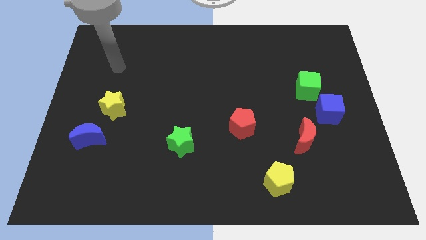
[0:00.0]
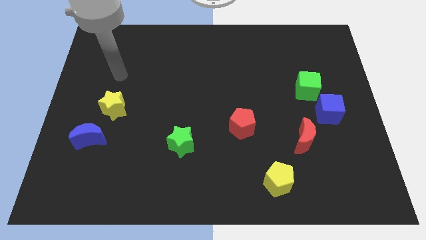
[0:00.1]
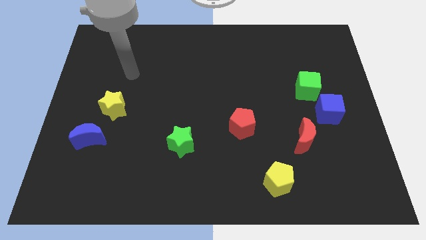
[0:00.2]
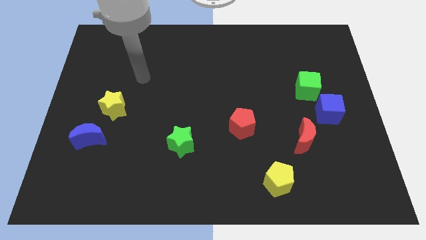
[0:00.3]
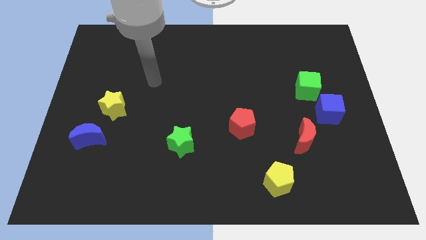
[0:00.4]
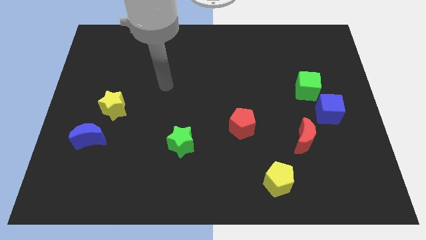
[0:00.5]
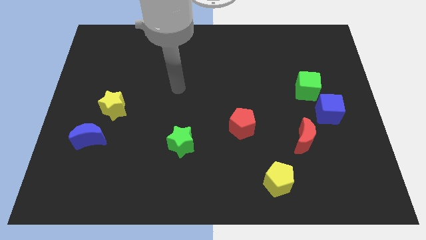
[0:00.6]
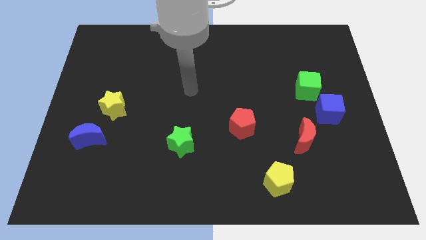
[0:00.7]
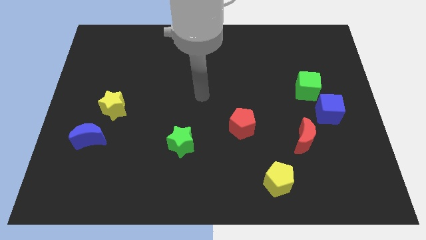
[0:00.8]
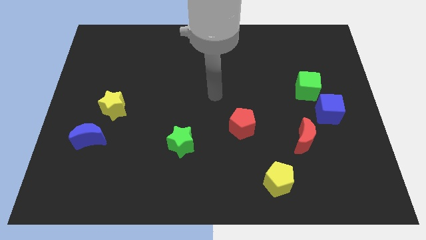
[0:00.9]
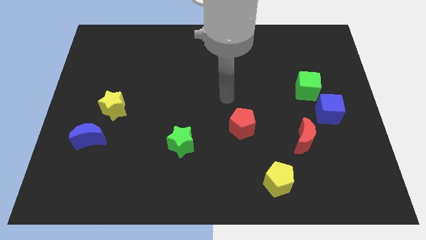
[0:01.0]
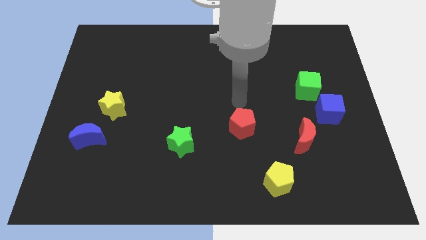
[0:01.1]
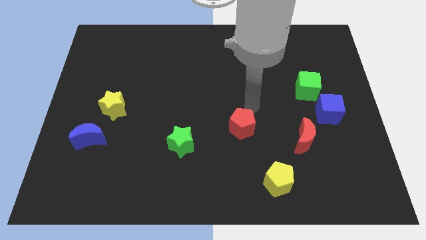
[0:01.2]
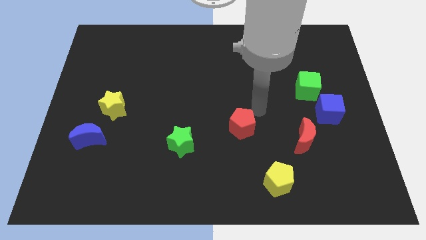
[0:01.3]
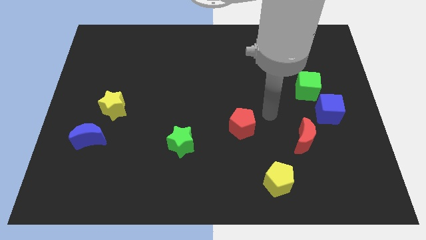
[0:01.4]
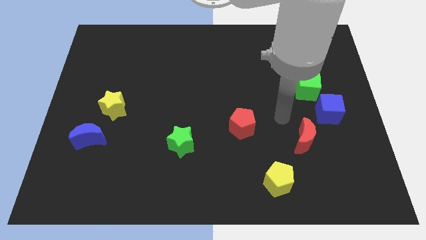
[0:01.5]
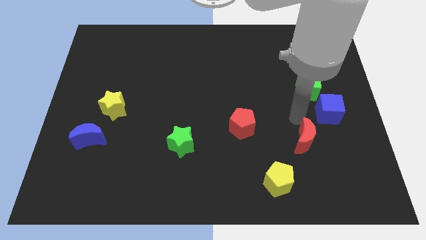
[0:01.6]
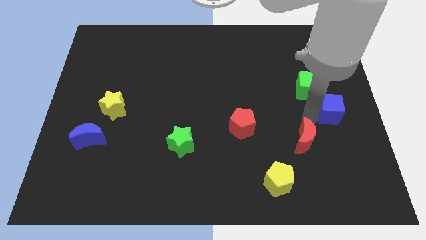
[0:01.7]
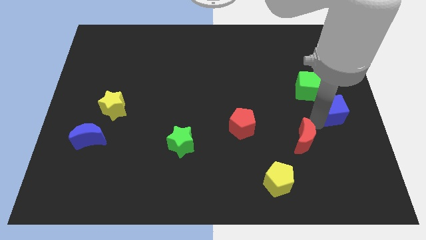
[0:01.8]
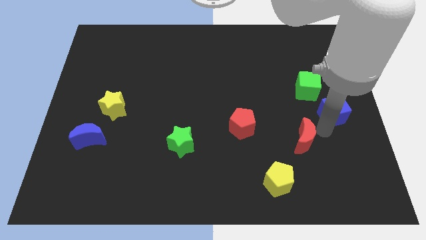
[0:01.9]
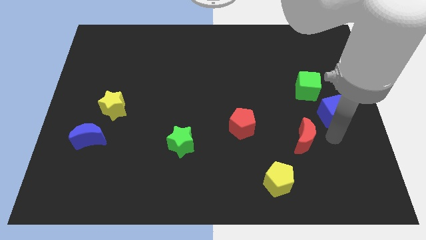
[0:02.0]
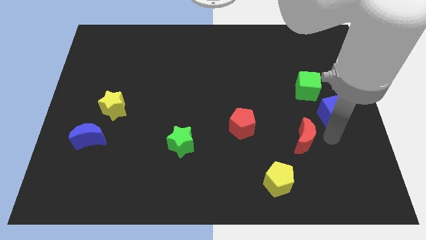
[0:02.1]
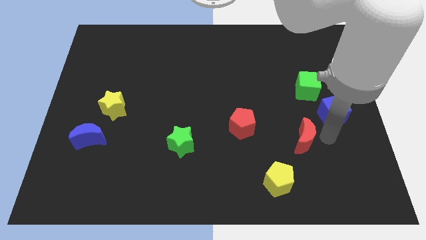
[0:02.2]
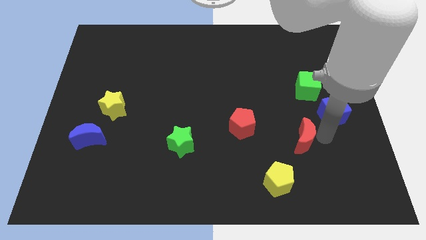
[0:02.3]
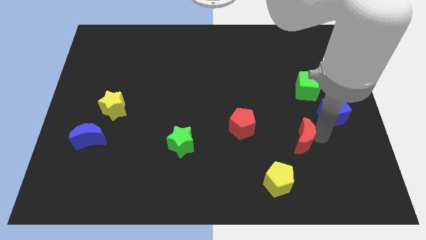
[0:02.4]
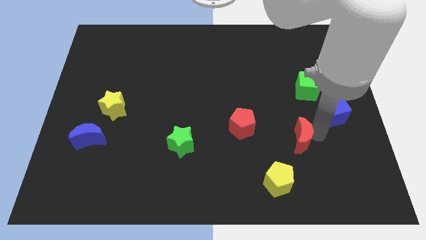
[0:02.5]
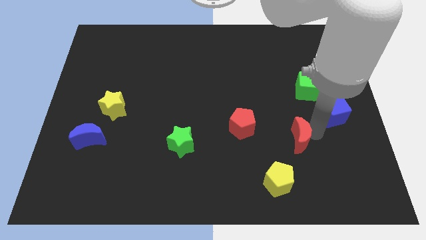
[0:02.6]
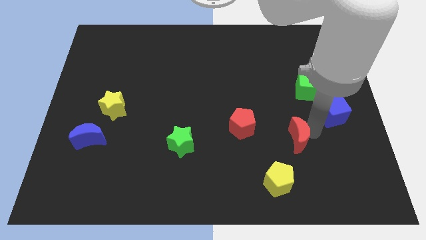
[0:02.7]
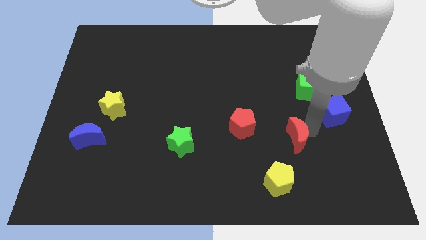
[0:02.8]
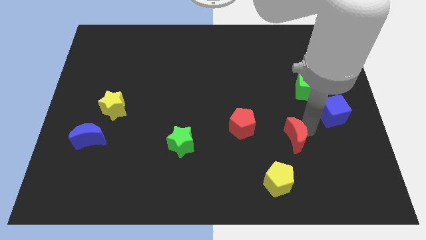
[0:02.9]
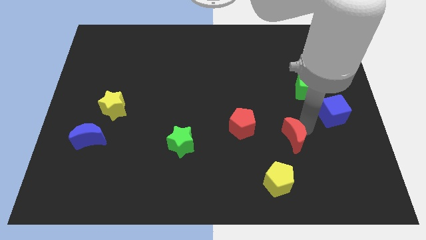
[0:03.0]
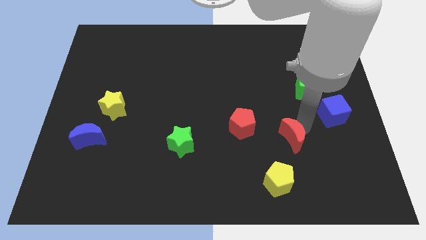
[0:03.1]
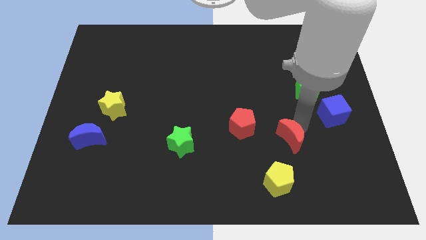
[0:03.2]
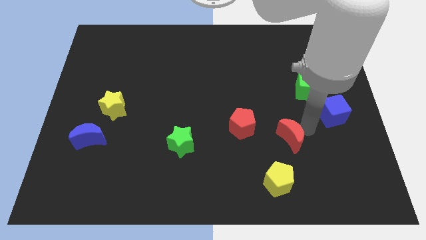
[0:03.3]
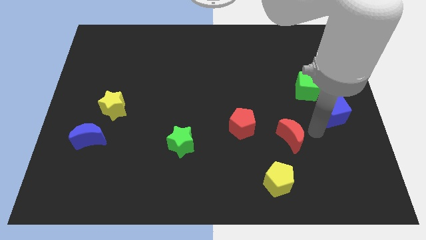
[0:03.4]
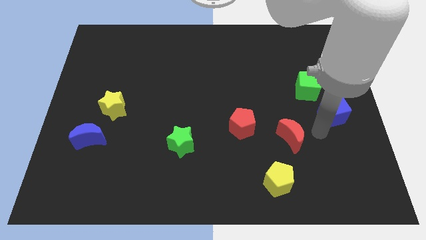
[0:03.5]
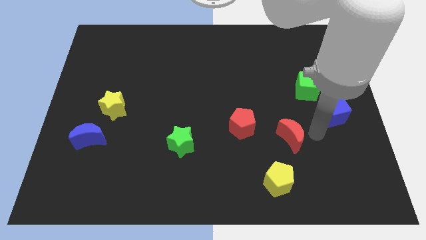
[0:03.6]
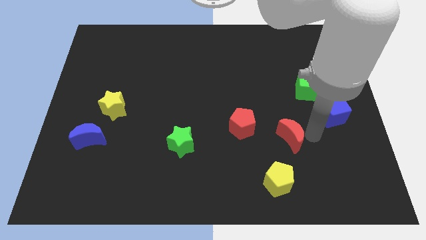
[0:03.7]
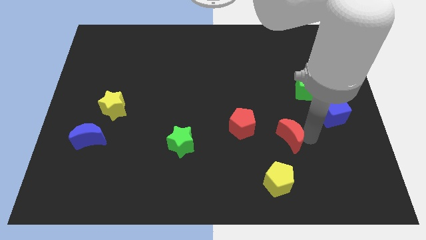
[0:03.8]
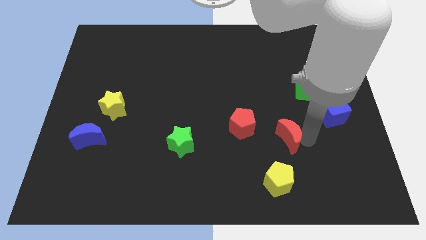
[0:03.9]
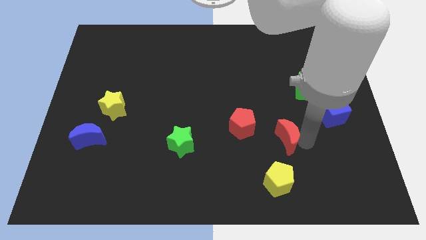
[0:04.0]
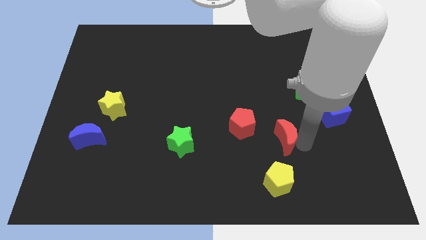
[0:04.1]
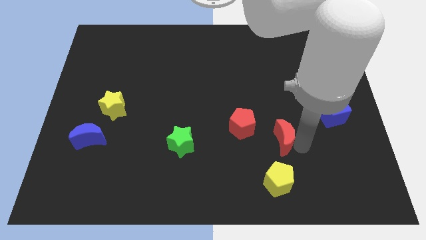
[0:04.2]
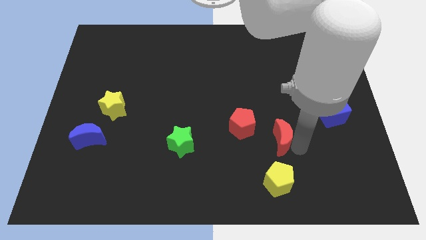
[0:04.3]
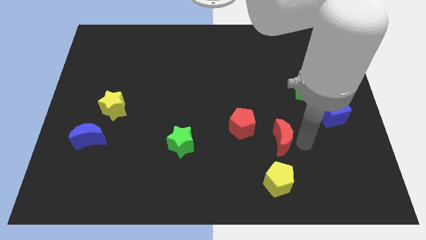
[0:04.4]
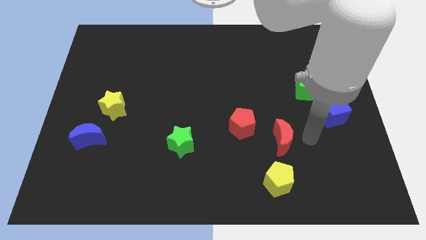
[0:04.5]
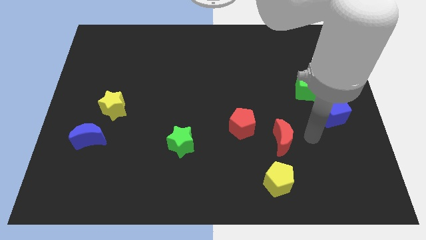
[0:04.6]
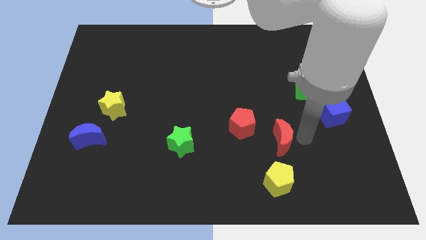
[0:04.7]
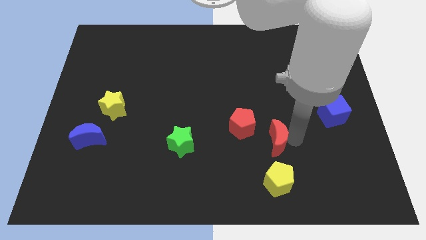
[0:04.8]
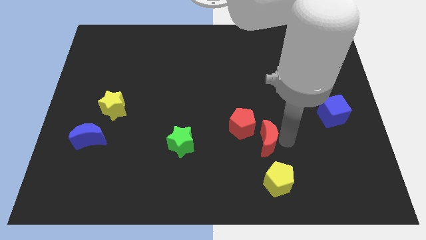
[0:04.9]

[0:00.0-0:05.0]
move the red moon left a little

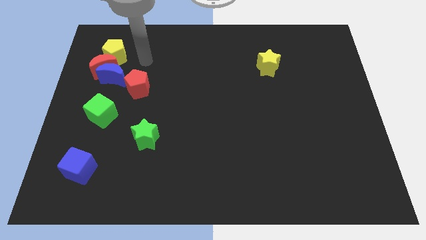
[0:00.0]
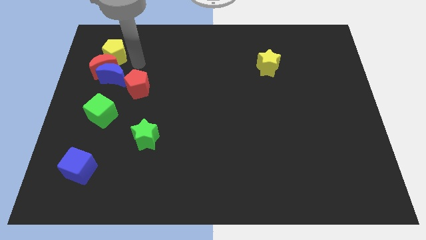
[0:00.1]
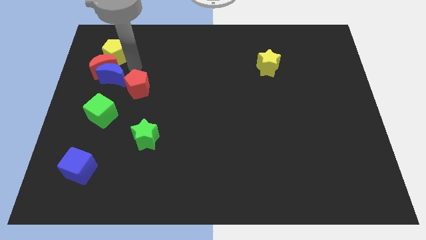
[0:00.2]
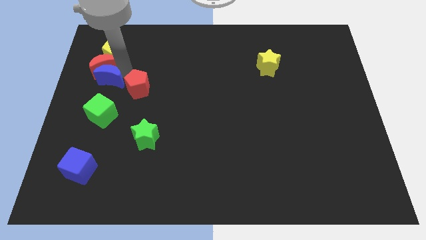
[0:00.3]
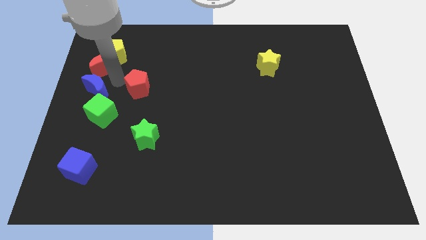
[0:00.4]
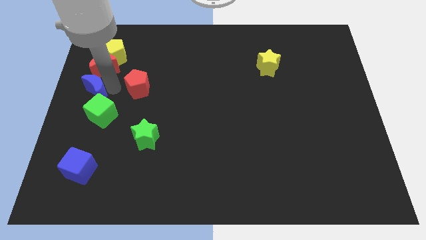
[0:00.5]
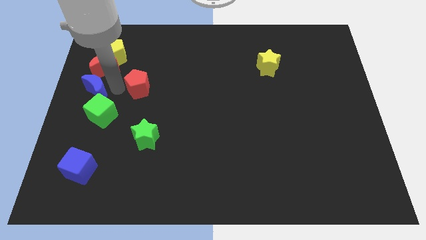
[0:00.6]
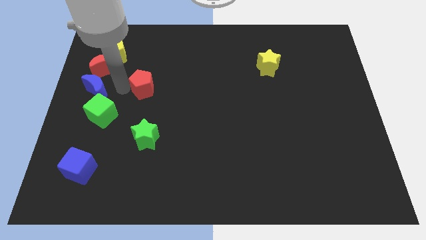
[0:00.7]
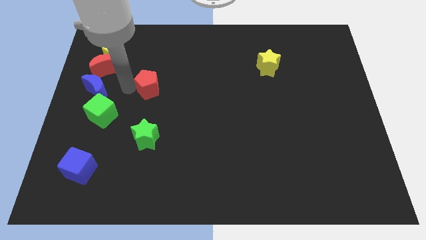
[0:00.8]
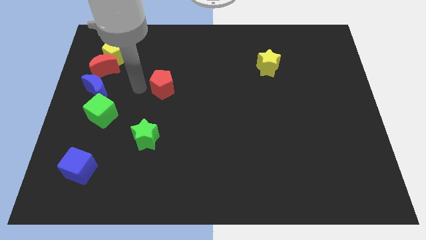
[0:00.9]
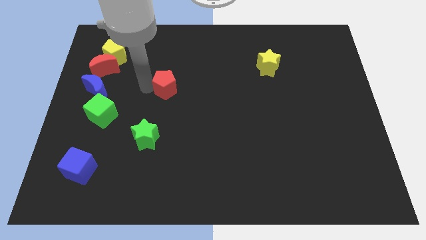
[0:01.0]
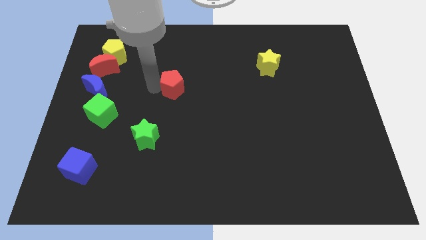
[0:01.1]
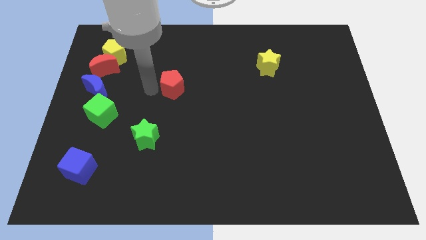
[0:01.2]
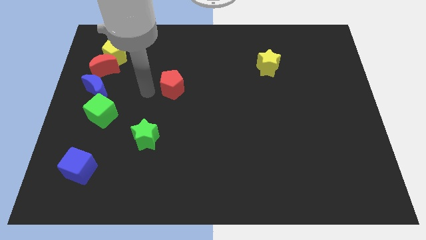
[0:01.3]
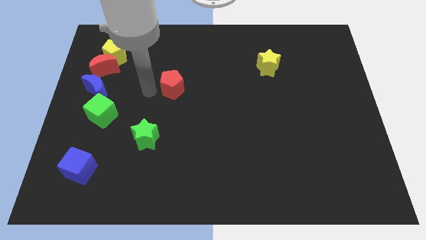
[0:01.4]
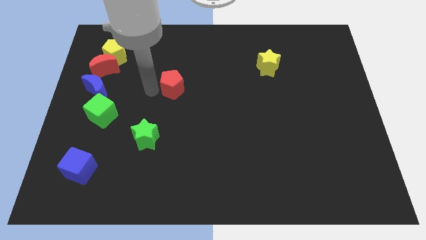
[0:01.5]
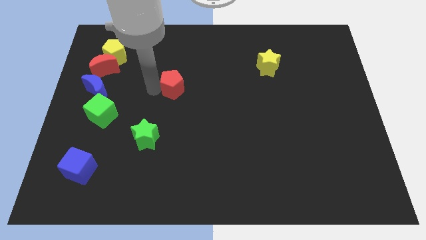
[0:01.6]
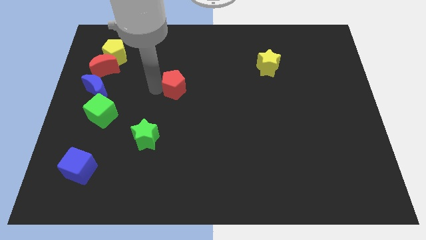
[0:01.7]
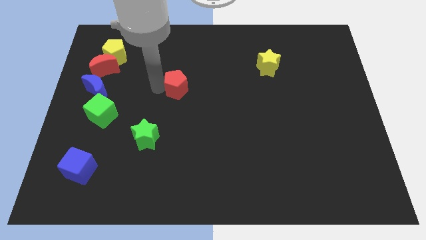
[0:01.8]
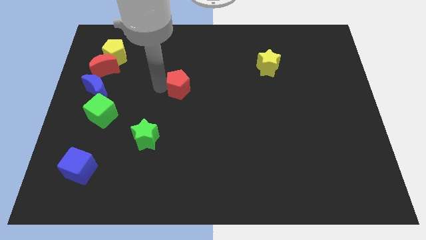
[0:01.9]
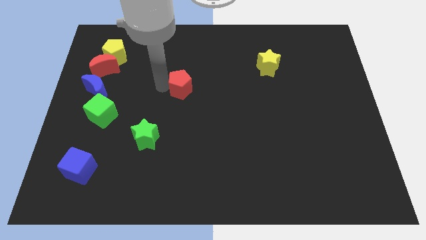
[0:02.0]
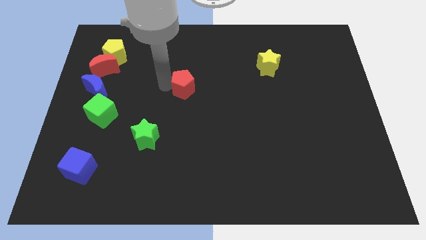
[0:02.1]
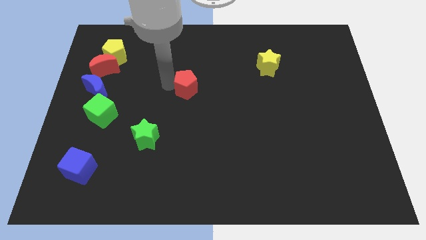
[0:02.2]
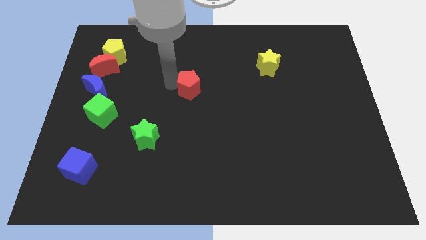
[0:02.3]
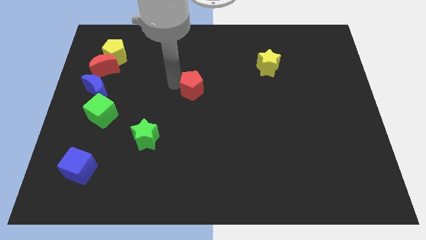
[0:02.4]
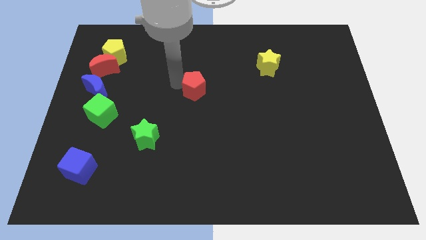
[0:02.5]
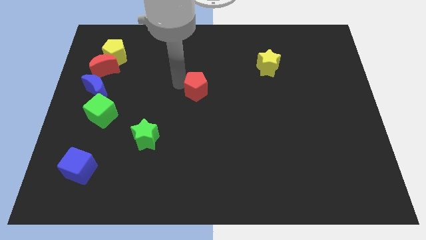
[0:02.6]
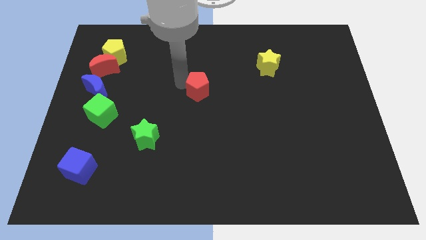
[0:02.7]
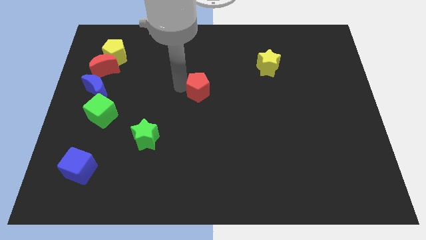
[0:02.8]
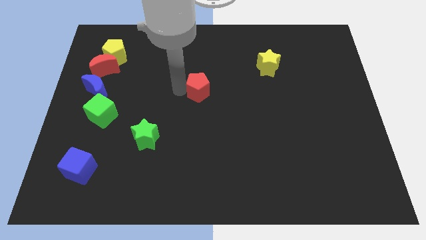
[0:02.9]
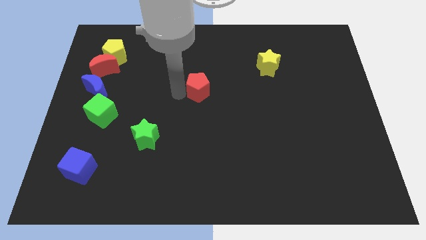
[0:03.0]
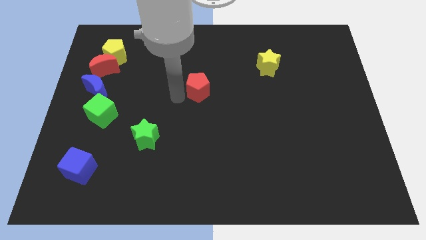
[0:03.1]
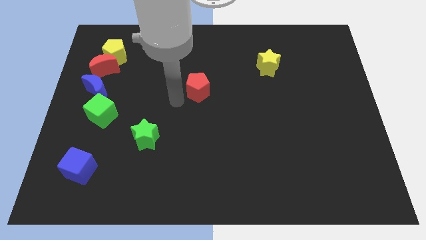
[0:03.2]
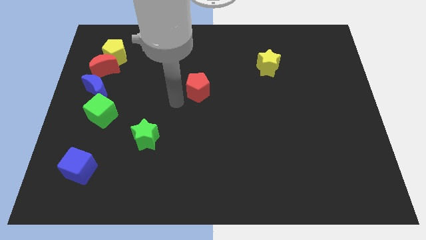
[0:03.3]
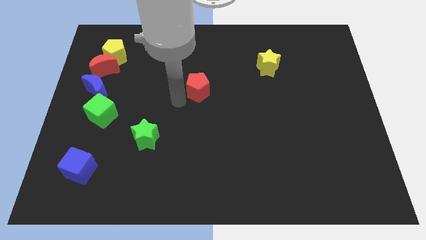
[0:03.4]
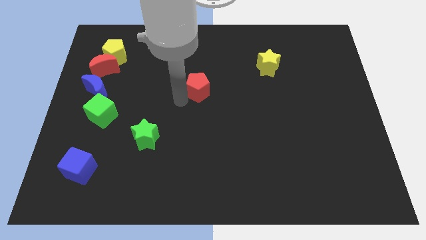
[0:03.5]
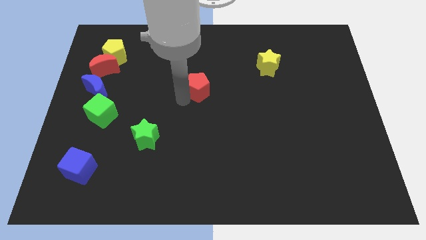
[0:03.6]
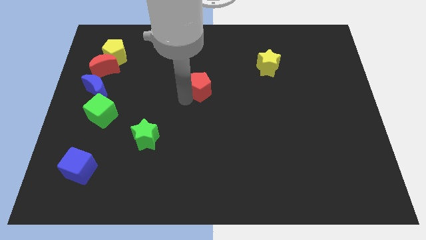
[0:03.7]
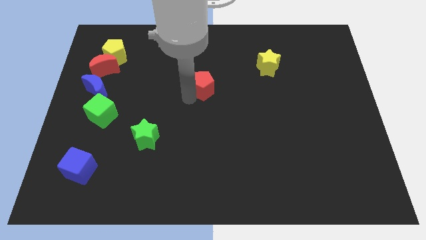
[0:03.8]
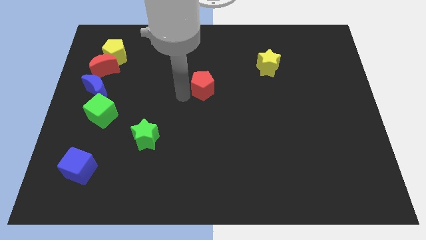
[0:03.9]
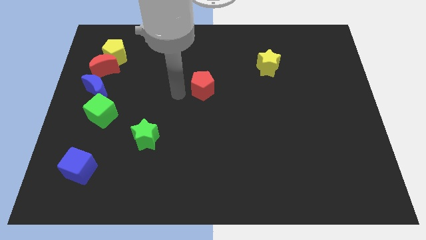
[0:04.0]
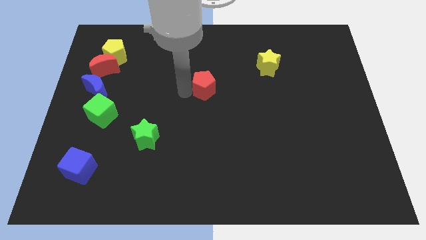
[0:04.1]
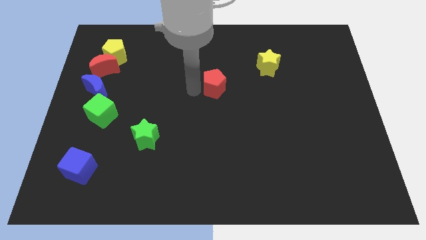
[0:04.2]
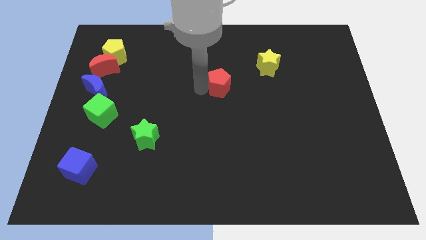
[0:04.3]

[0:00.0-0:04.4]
push the red pentagon right
